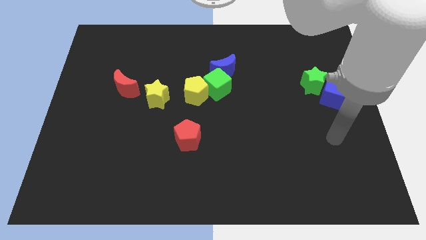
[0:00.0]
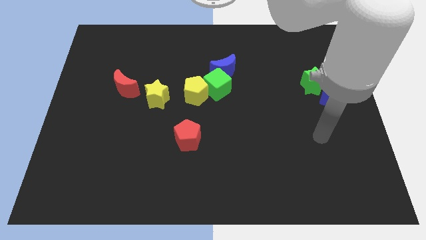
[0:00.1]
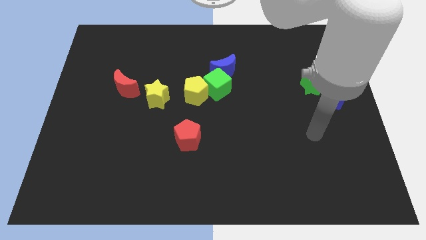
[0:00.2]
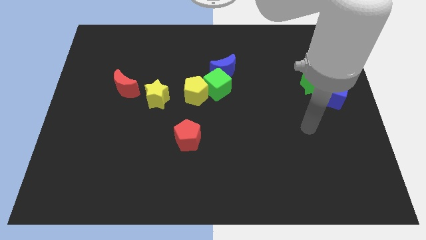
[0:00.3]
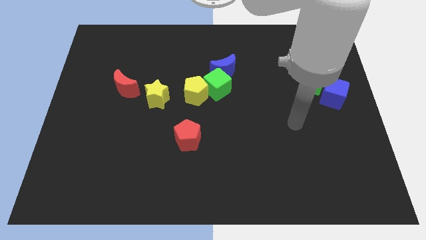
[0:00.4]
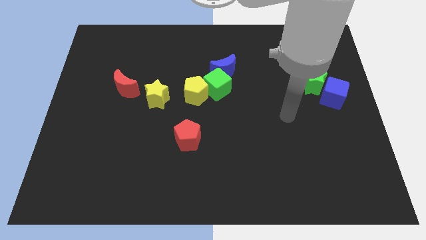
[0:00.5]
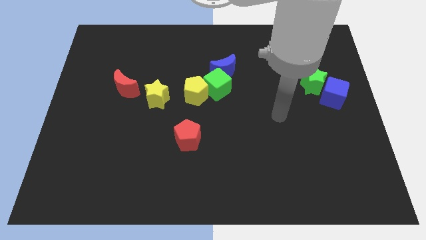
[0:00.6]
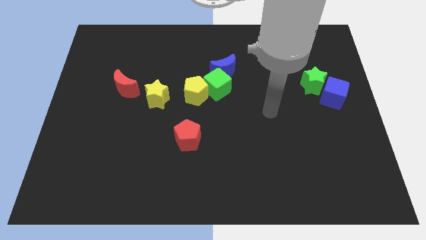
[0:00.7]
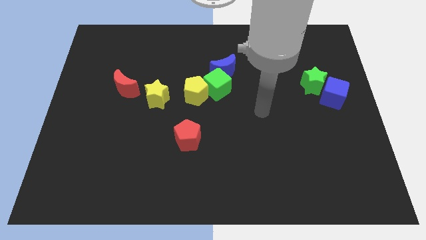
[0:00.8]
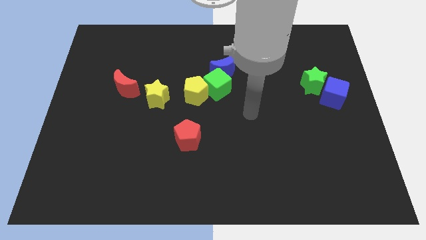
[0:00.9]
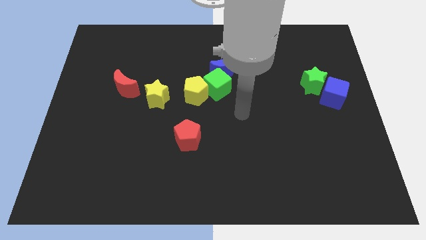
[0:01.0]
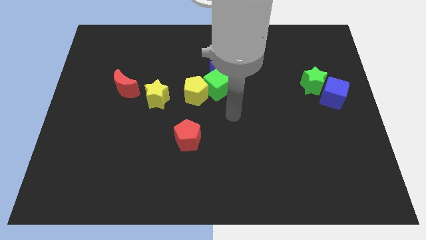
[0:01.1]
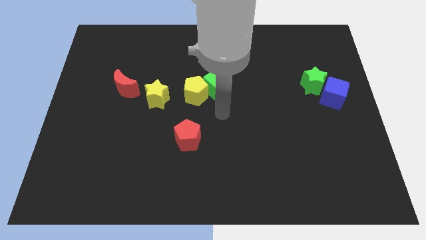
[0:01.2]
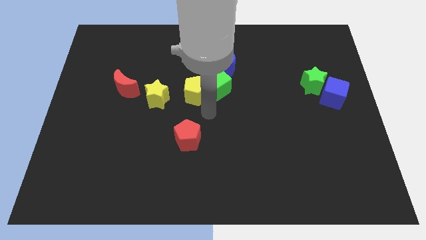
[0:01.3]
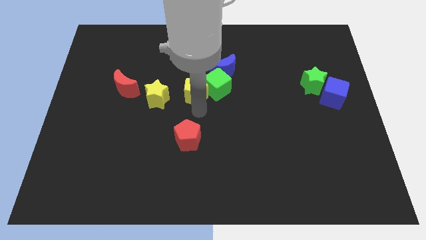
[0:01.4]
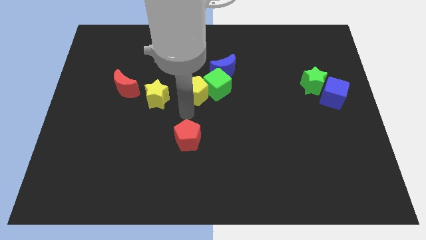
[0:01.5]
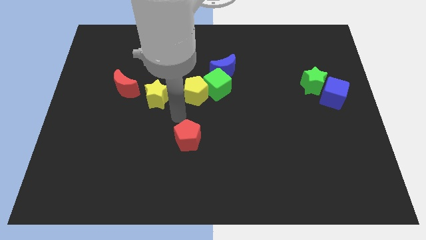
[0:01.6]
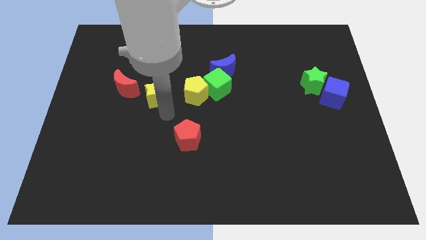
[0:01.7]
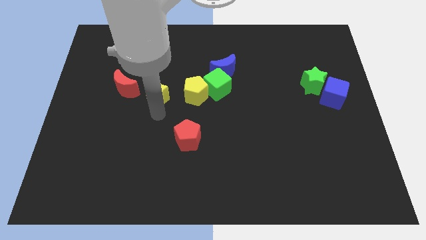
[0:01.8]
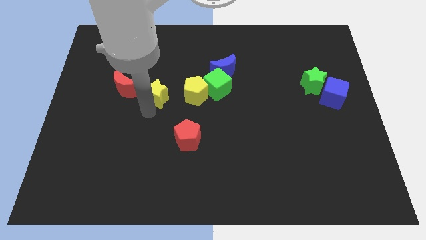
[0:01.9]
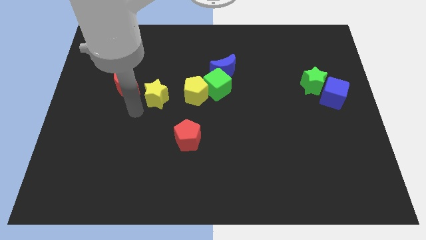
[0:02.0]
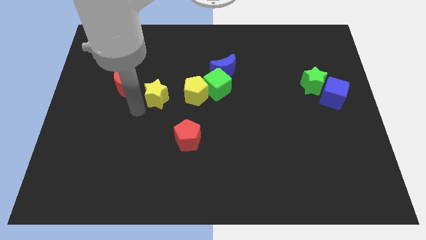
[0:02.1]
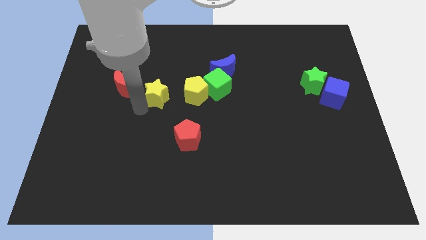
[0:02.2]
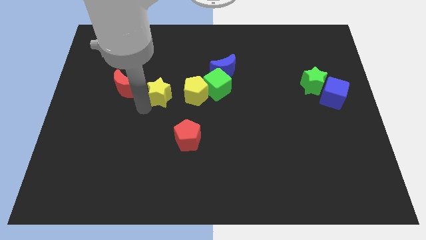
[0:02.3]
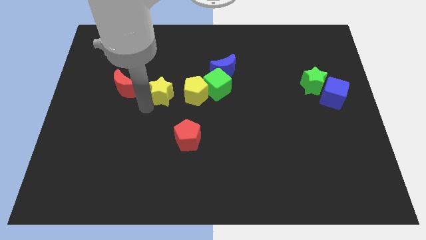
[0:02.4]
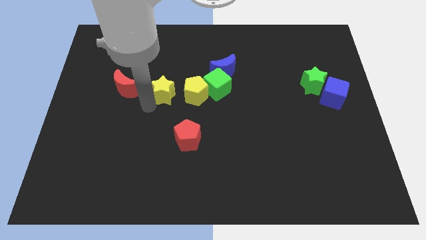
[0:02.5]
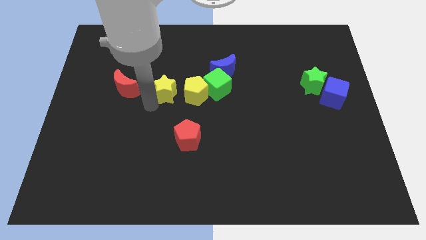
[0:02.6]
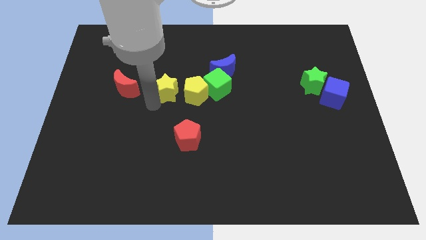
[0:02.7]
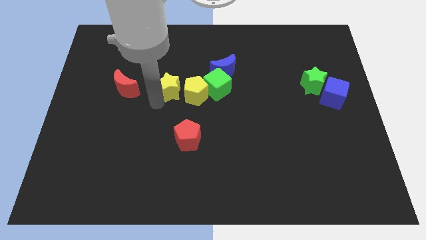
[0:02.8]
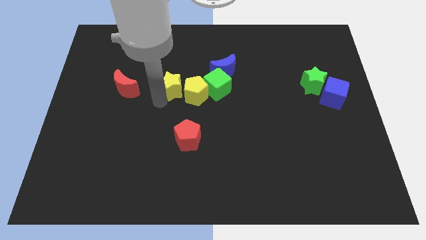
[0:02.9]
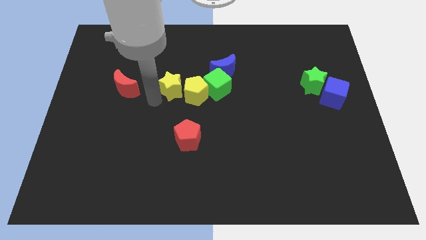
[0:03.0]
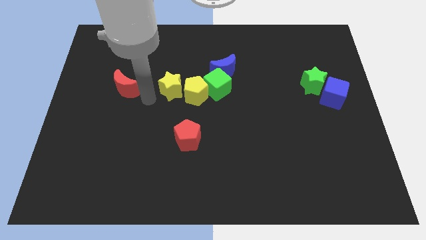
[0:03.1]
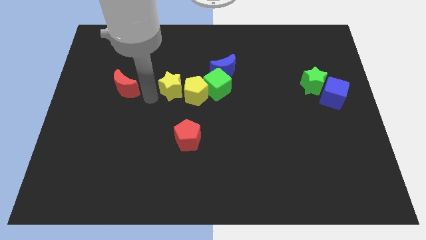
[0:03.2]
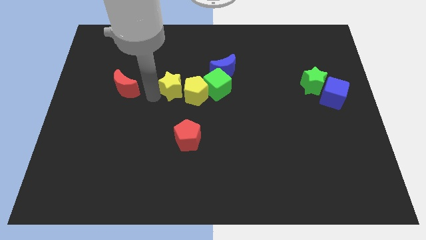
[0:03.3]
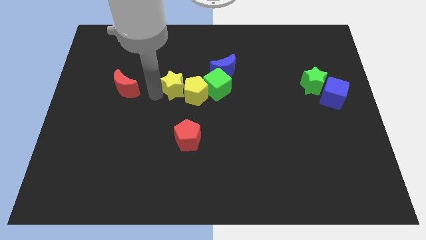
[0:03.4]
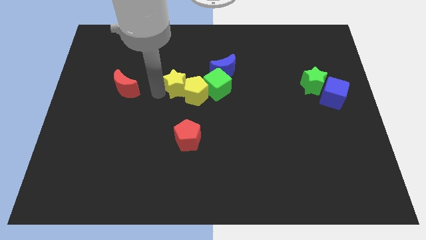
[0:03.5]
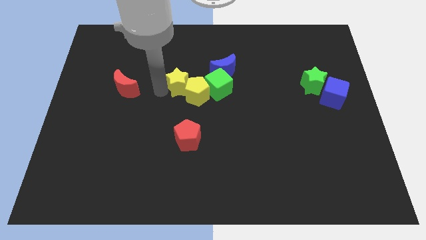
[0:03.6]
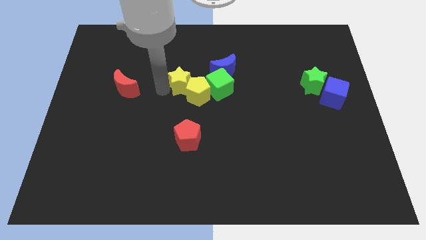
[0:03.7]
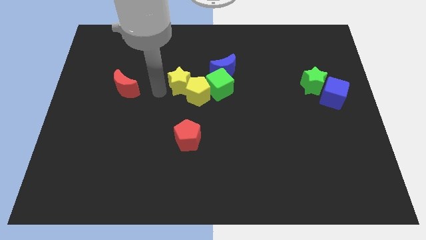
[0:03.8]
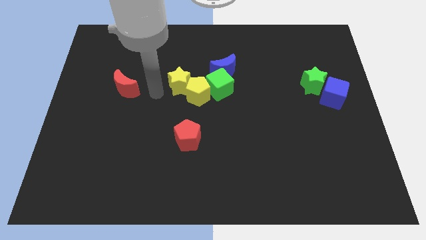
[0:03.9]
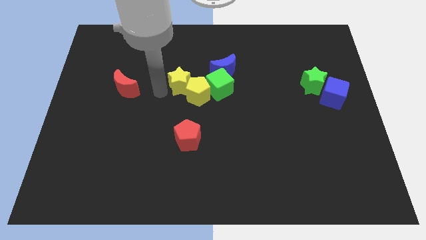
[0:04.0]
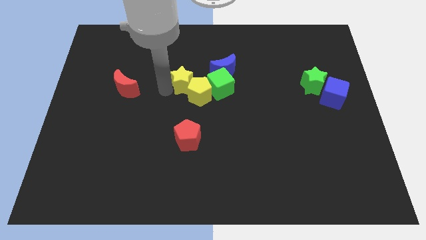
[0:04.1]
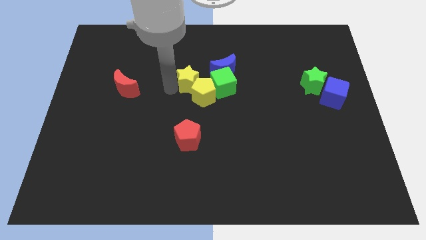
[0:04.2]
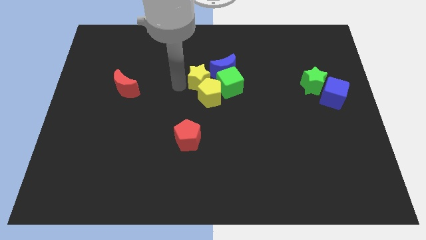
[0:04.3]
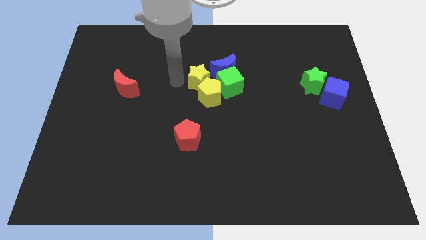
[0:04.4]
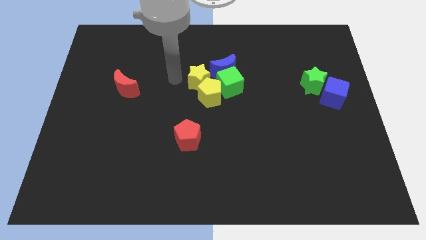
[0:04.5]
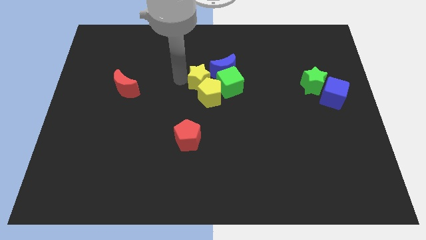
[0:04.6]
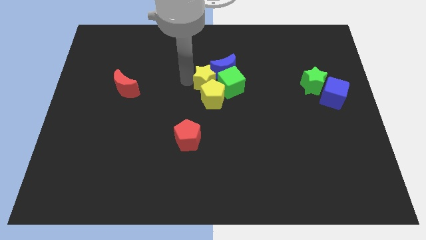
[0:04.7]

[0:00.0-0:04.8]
put the yellow star next to the green cube

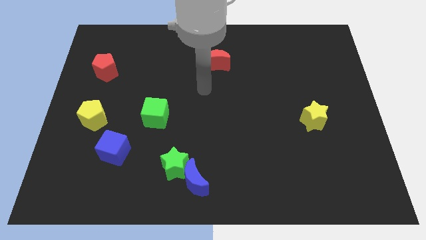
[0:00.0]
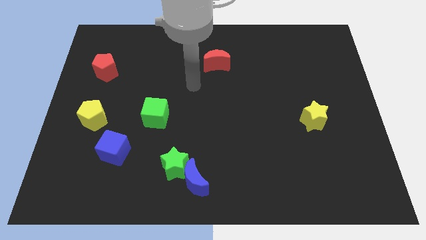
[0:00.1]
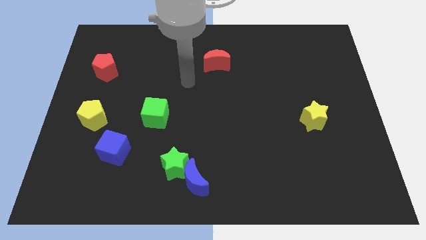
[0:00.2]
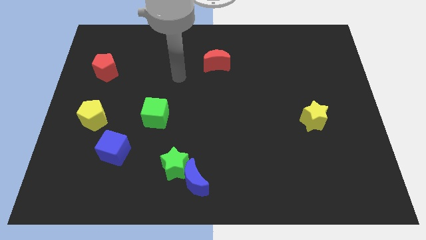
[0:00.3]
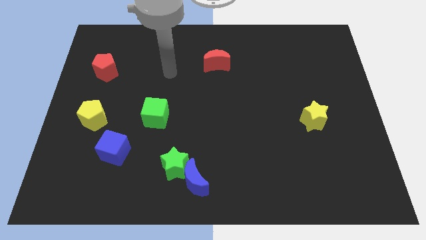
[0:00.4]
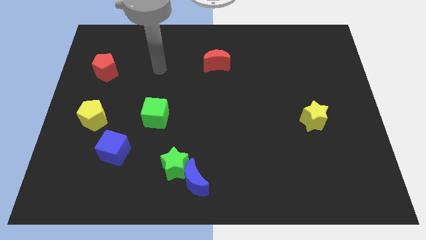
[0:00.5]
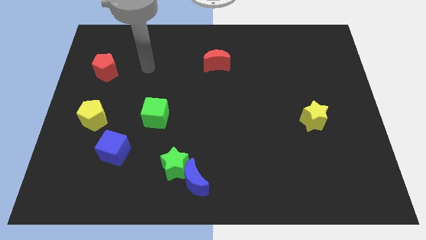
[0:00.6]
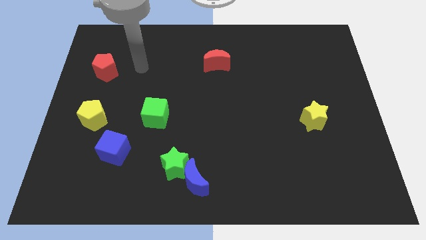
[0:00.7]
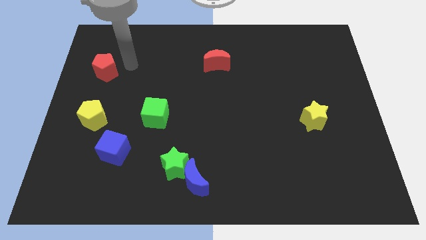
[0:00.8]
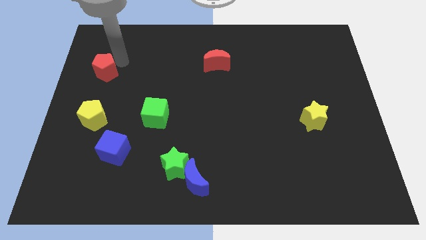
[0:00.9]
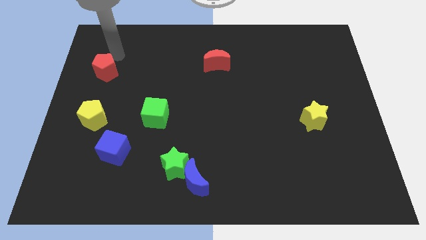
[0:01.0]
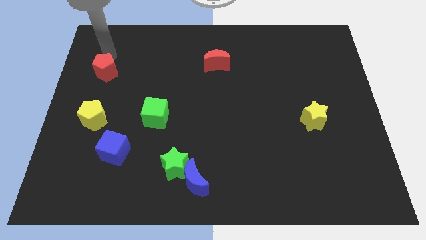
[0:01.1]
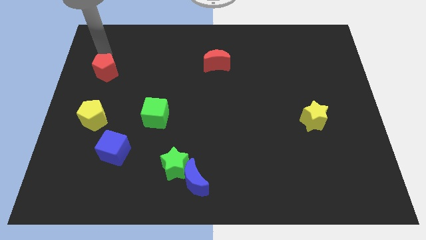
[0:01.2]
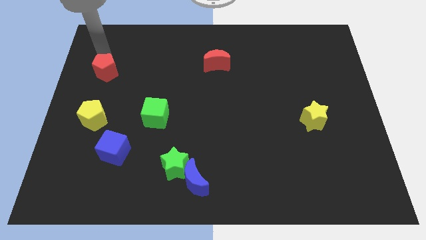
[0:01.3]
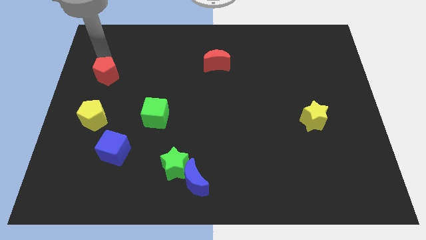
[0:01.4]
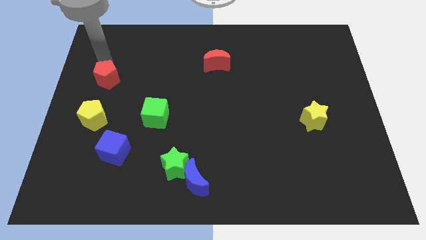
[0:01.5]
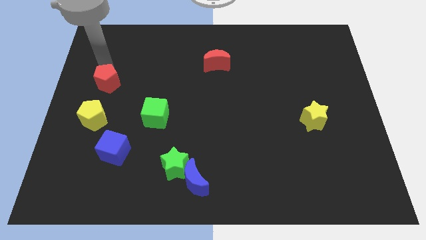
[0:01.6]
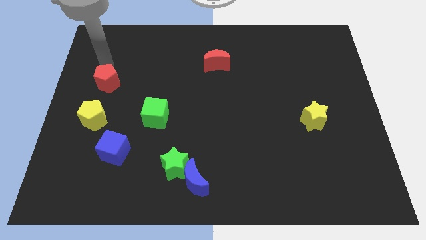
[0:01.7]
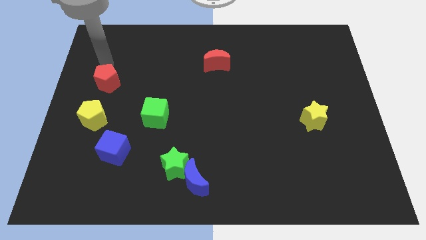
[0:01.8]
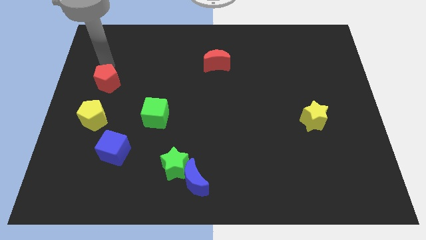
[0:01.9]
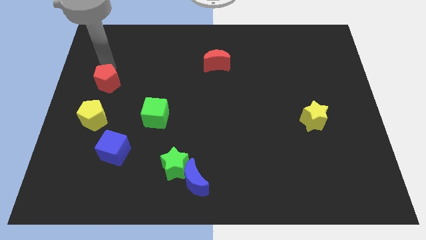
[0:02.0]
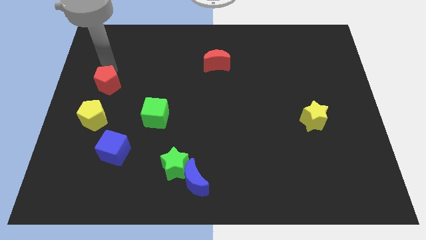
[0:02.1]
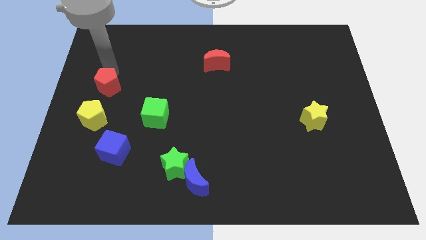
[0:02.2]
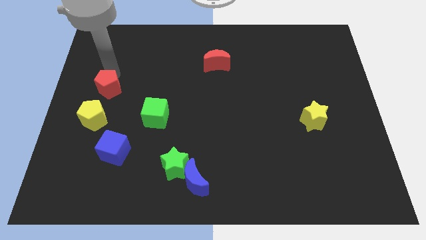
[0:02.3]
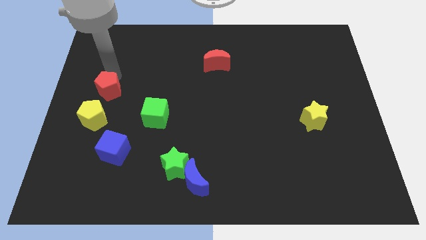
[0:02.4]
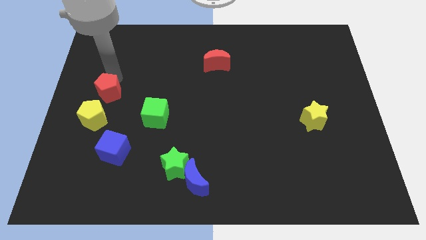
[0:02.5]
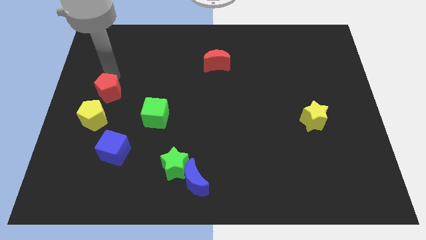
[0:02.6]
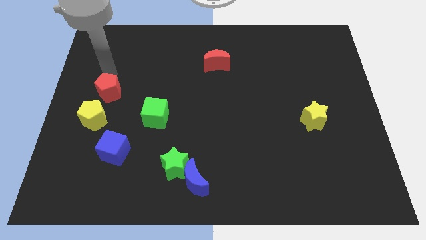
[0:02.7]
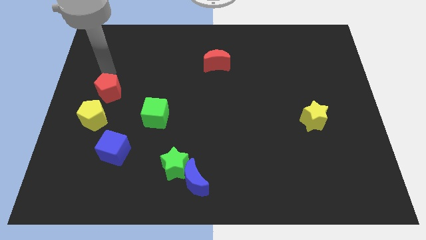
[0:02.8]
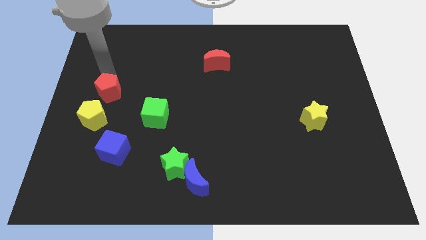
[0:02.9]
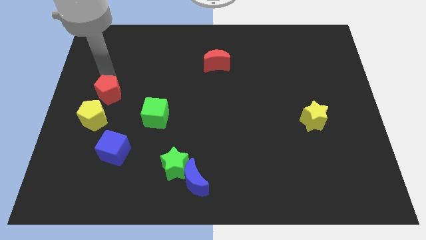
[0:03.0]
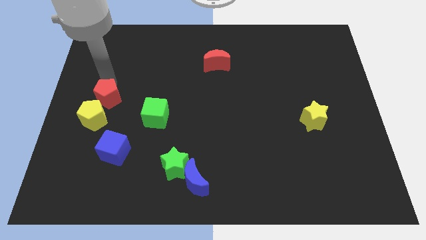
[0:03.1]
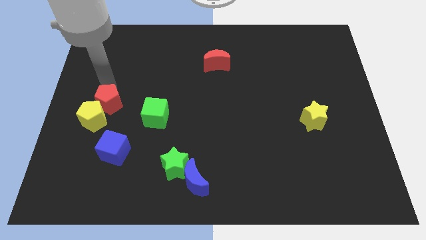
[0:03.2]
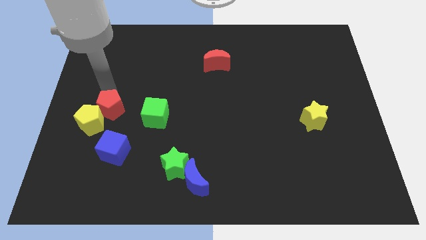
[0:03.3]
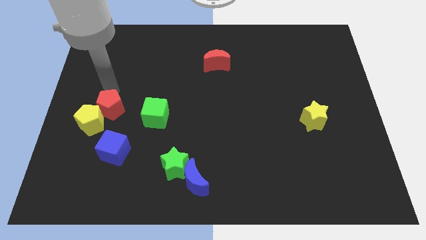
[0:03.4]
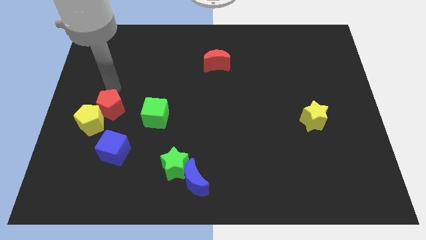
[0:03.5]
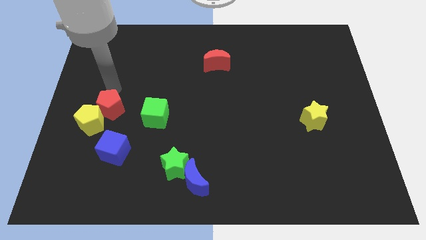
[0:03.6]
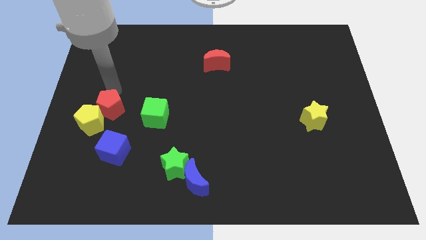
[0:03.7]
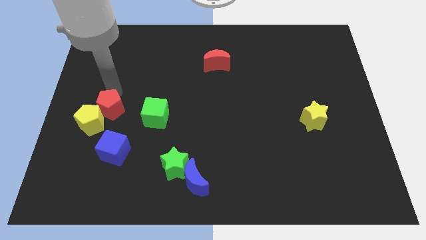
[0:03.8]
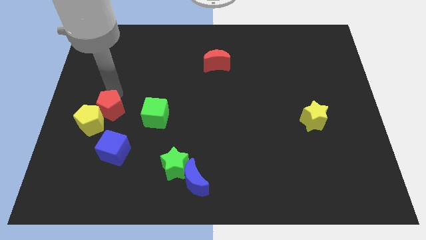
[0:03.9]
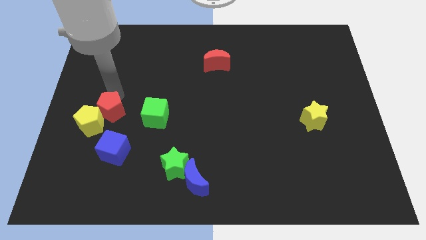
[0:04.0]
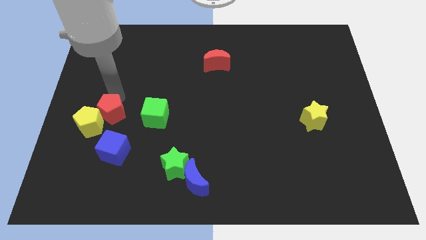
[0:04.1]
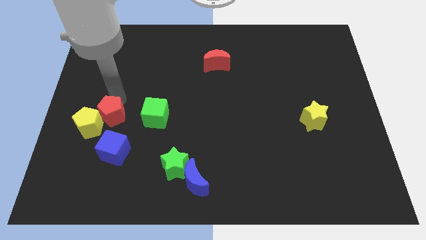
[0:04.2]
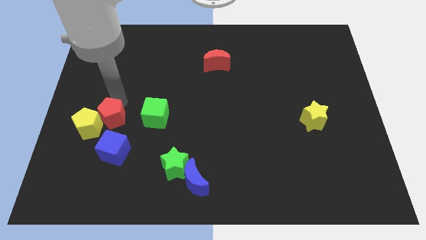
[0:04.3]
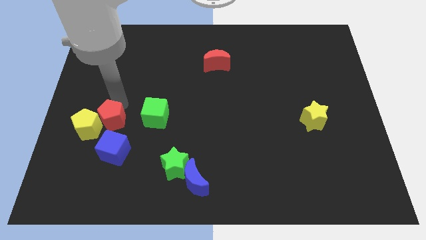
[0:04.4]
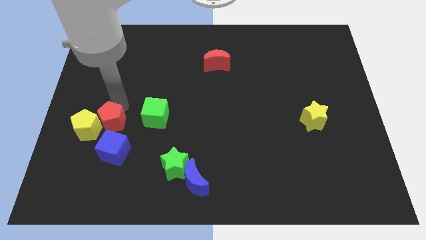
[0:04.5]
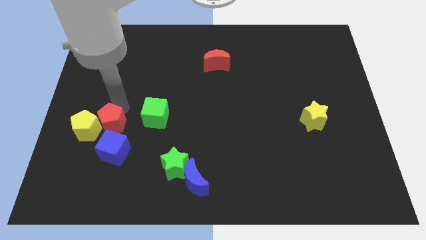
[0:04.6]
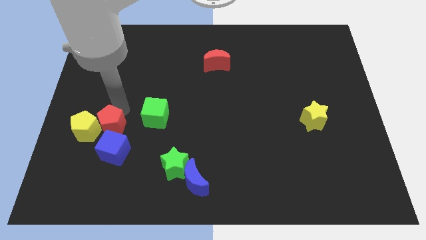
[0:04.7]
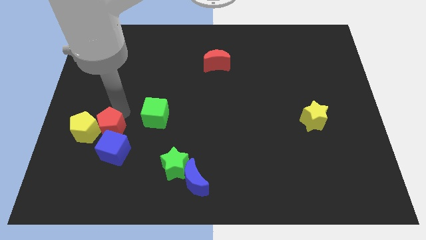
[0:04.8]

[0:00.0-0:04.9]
move the red pentagon close to the blue cube
